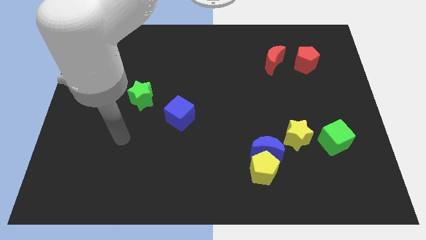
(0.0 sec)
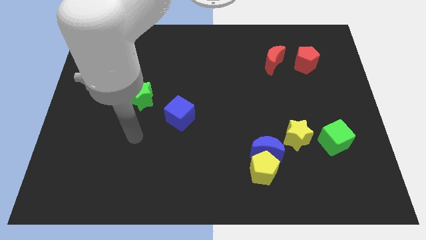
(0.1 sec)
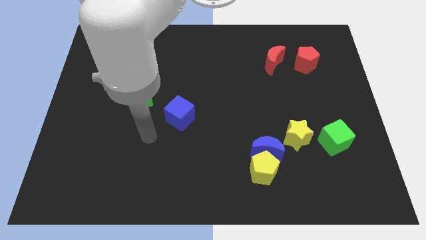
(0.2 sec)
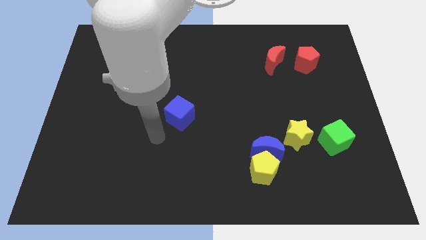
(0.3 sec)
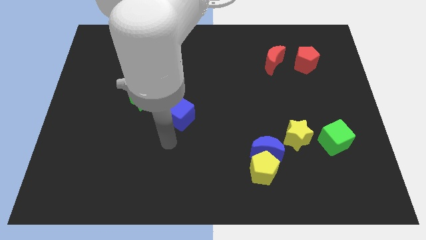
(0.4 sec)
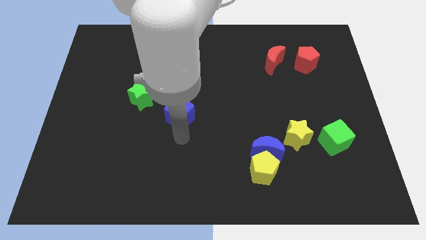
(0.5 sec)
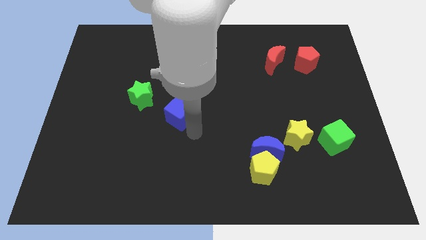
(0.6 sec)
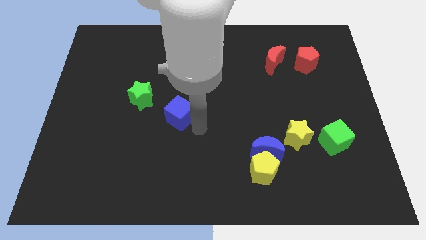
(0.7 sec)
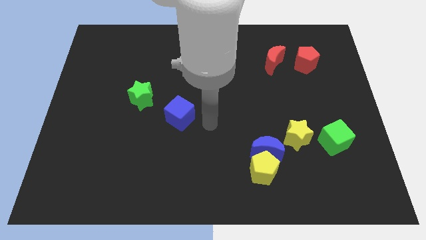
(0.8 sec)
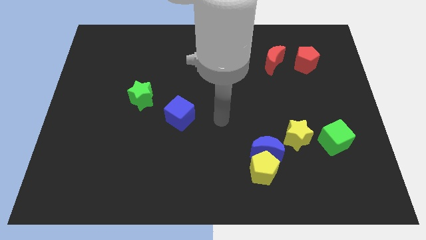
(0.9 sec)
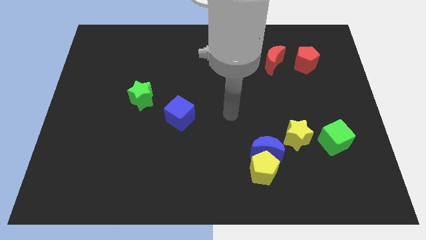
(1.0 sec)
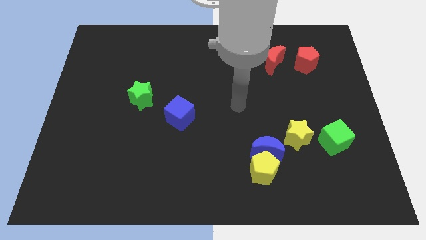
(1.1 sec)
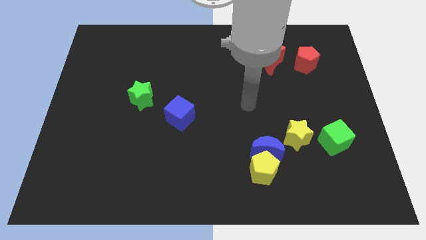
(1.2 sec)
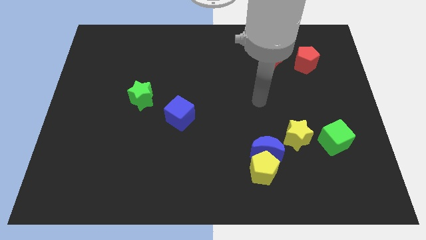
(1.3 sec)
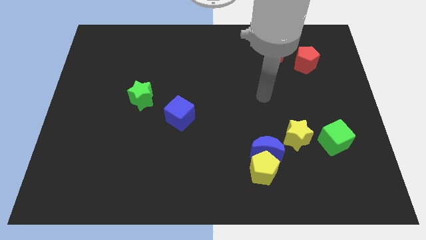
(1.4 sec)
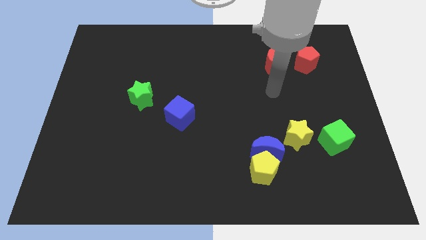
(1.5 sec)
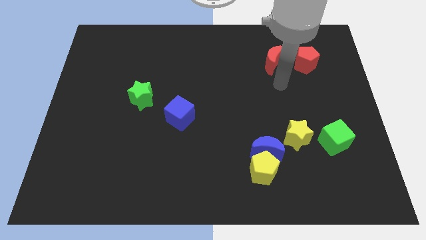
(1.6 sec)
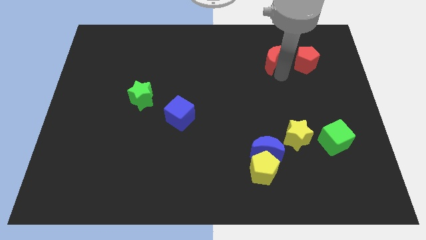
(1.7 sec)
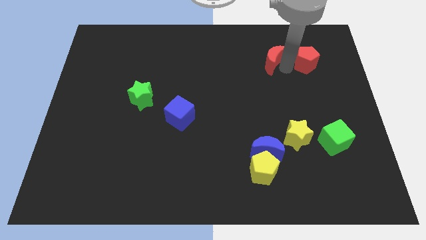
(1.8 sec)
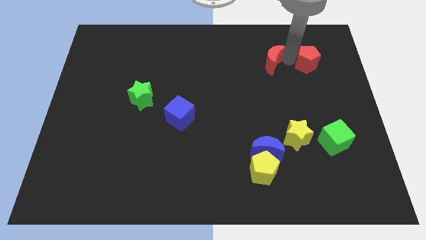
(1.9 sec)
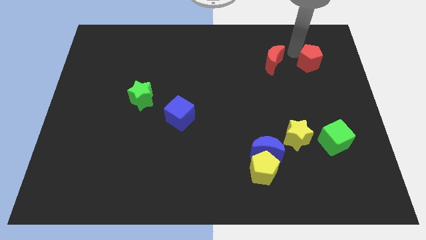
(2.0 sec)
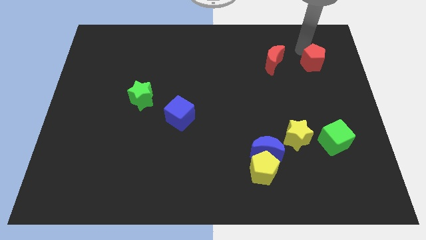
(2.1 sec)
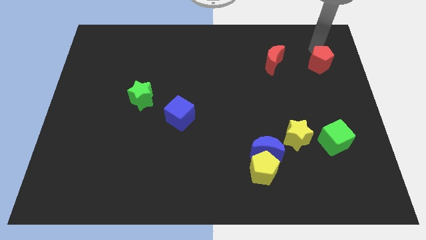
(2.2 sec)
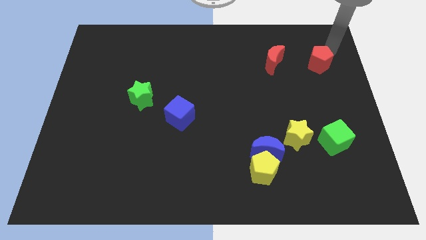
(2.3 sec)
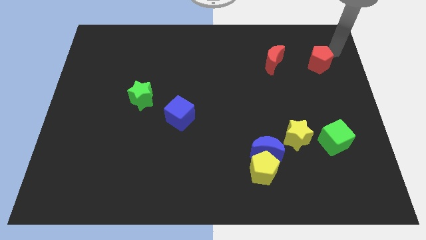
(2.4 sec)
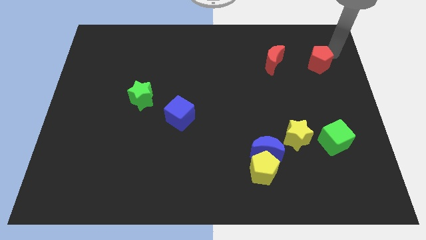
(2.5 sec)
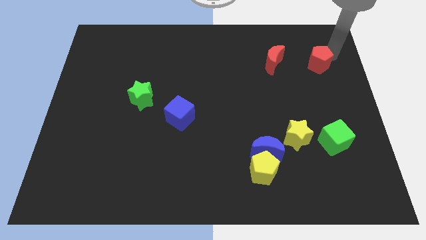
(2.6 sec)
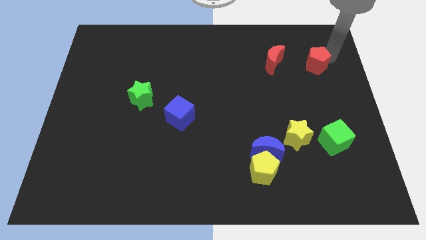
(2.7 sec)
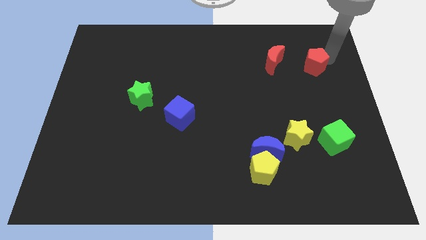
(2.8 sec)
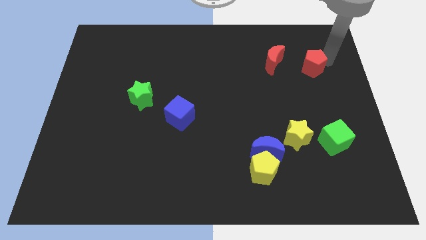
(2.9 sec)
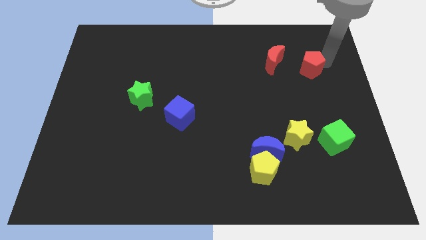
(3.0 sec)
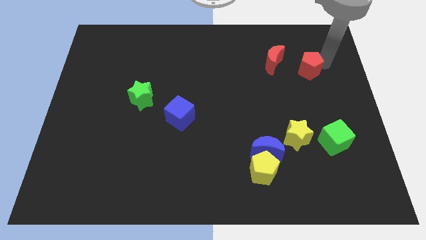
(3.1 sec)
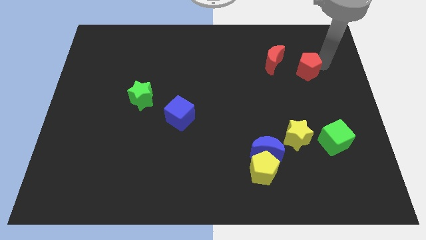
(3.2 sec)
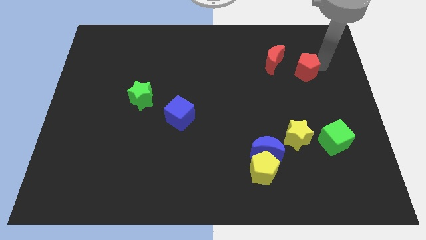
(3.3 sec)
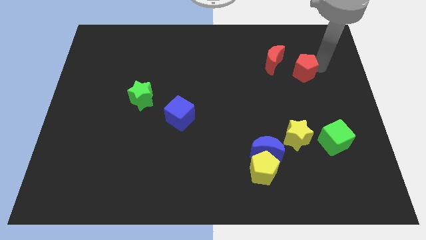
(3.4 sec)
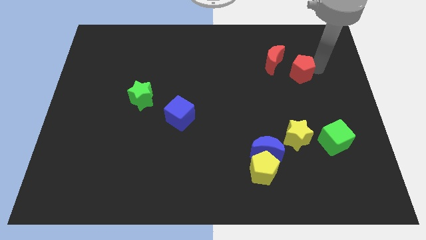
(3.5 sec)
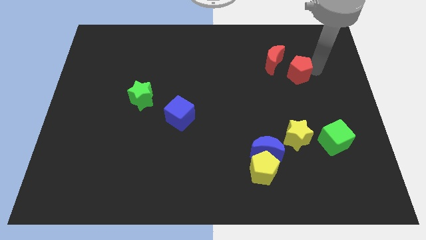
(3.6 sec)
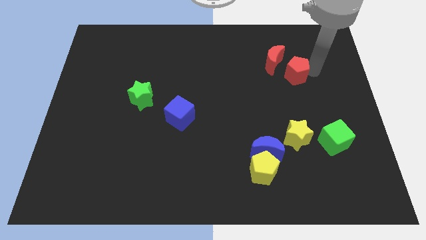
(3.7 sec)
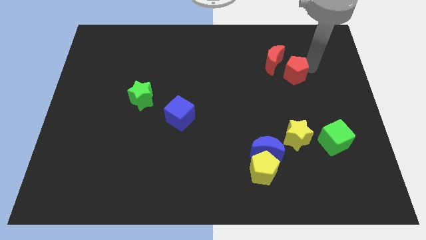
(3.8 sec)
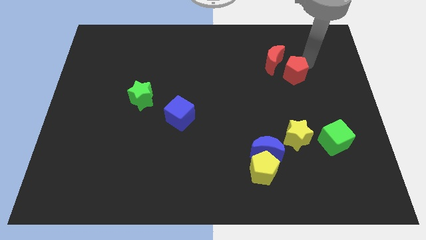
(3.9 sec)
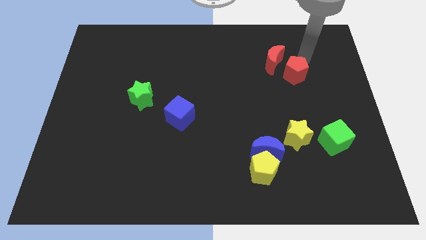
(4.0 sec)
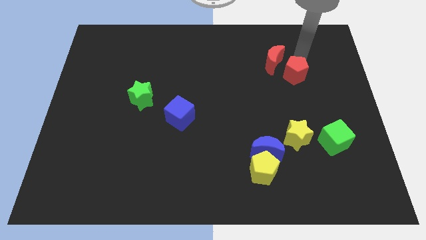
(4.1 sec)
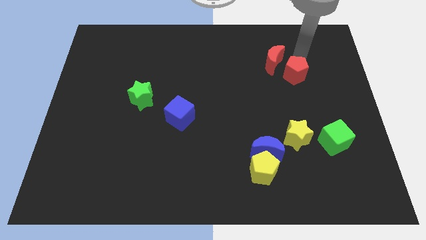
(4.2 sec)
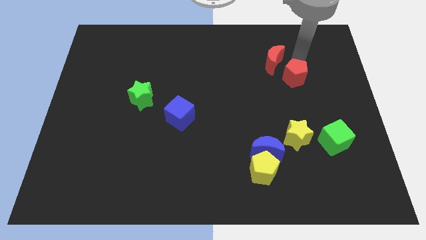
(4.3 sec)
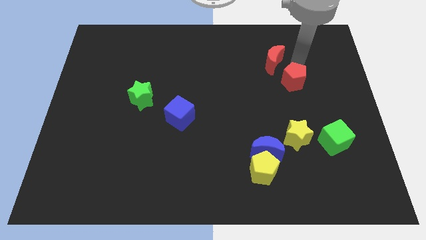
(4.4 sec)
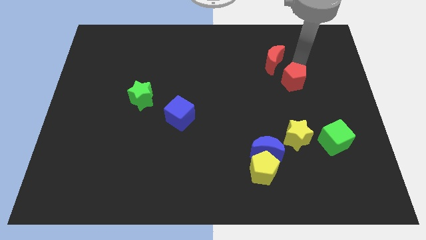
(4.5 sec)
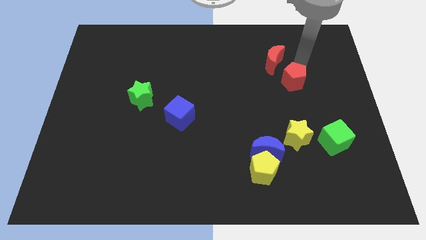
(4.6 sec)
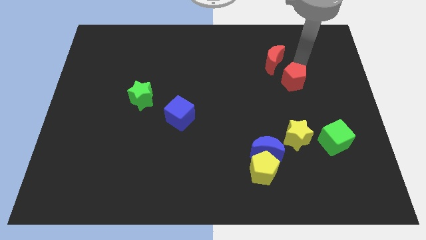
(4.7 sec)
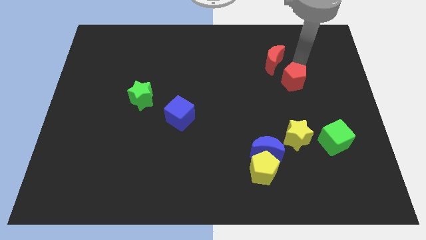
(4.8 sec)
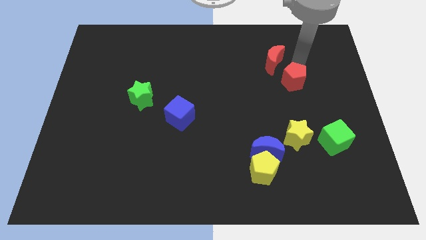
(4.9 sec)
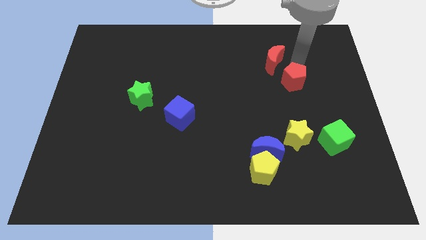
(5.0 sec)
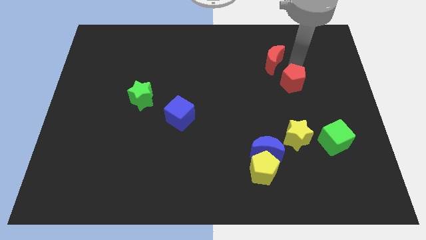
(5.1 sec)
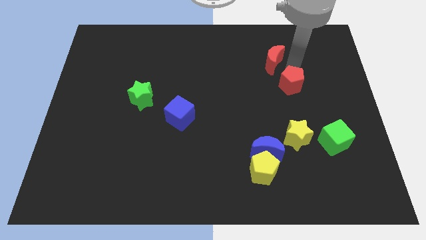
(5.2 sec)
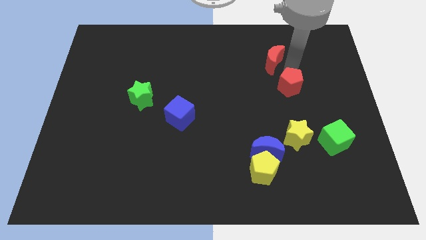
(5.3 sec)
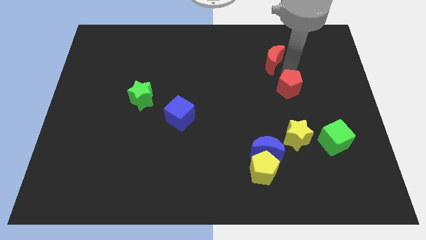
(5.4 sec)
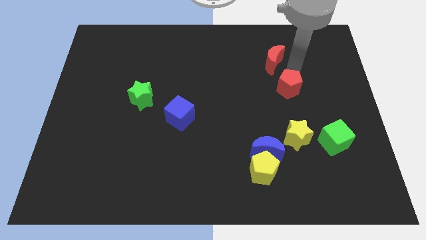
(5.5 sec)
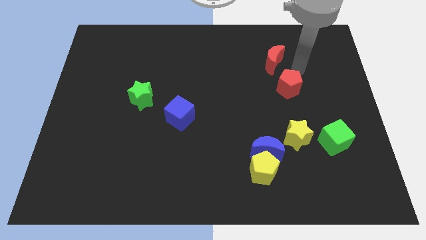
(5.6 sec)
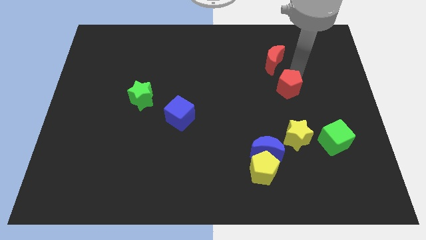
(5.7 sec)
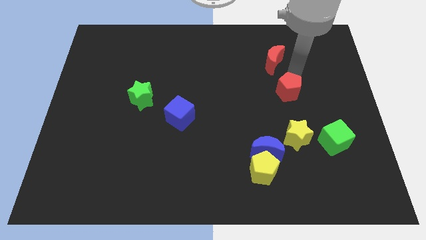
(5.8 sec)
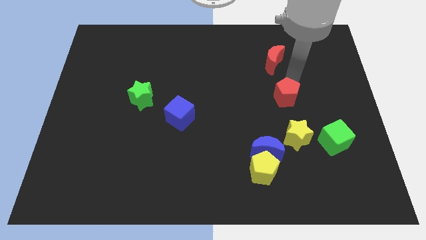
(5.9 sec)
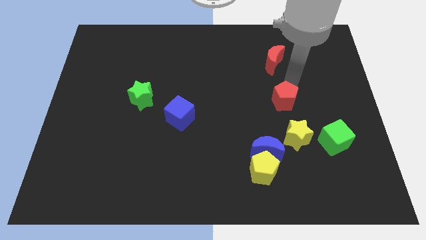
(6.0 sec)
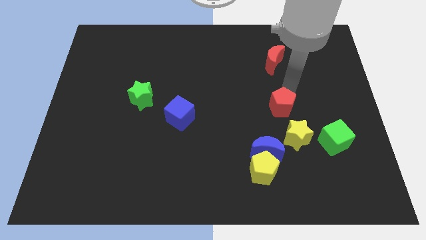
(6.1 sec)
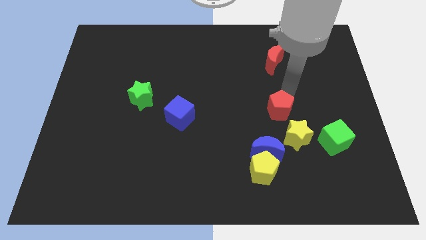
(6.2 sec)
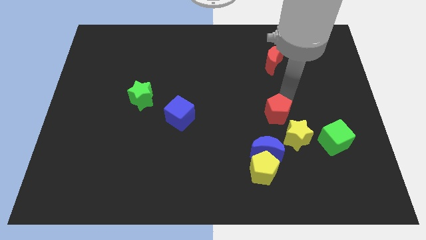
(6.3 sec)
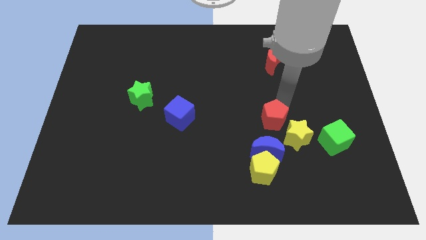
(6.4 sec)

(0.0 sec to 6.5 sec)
move the red pentagon to the top side of the yellow pentagon

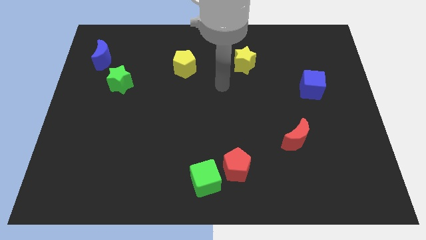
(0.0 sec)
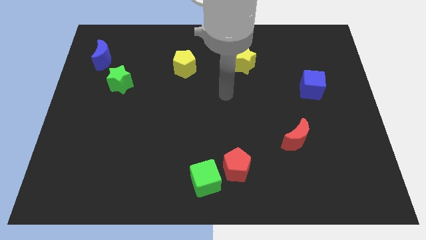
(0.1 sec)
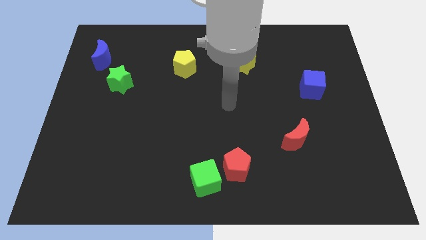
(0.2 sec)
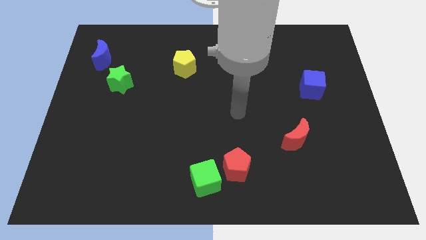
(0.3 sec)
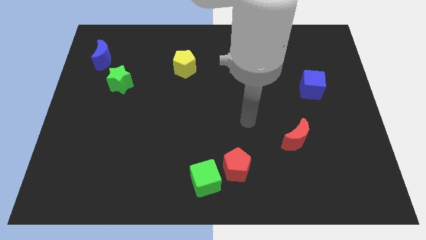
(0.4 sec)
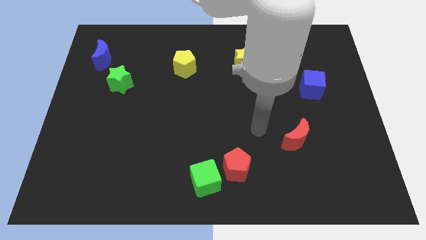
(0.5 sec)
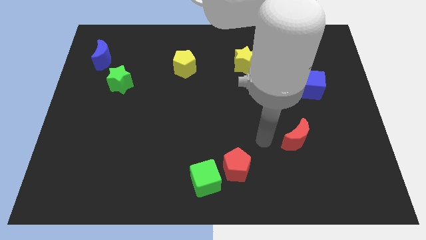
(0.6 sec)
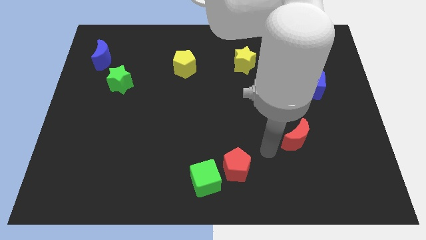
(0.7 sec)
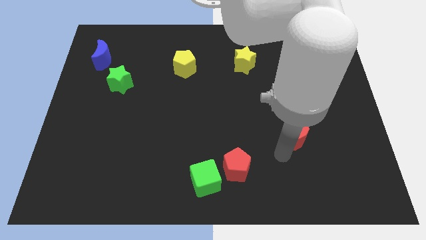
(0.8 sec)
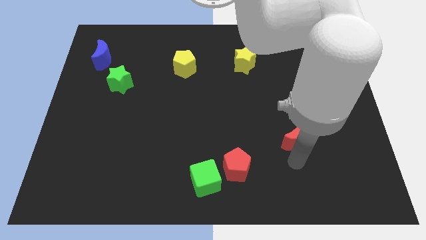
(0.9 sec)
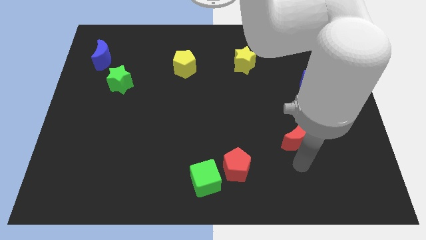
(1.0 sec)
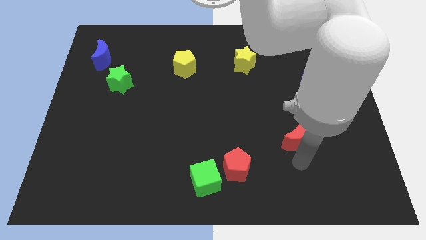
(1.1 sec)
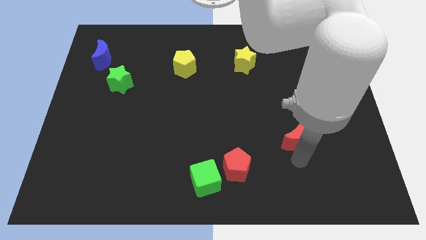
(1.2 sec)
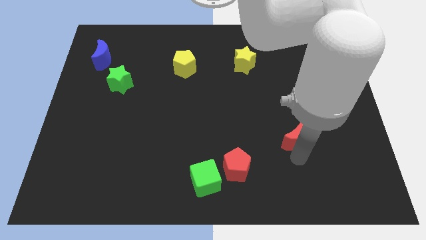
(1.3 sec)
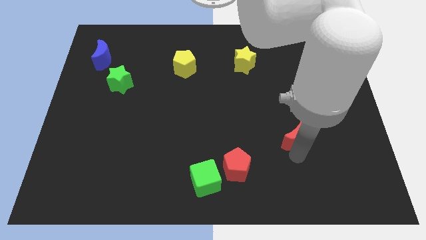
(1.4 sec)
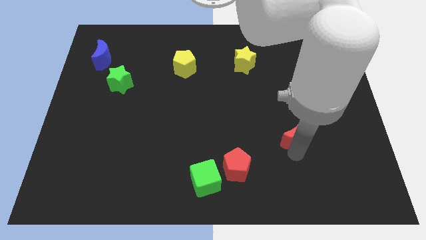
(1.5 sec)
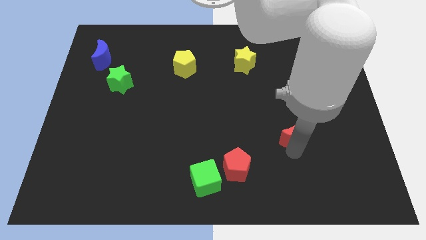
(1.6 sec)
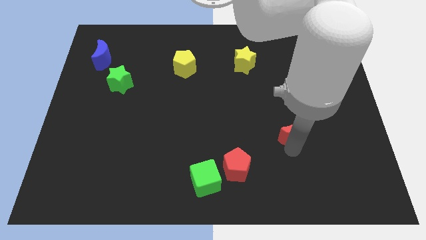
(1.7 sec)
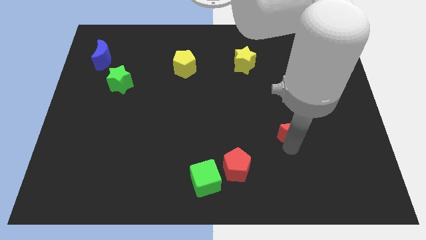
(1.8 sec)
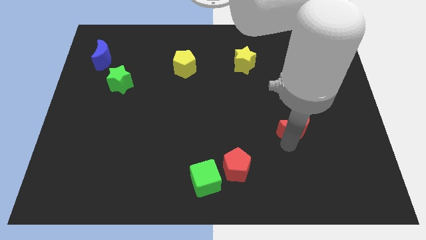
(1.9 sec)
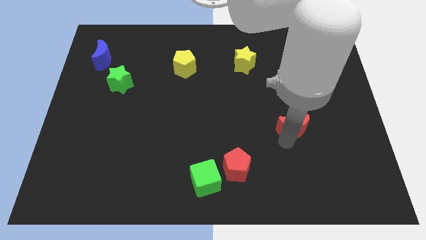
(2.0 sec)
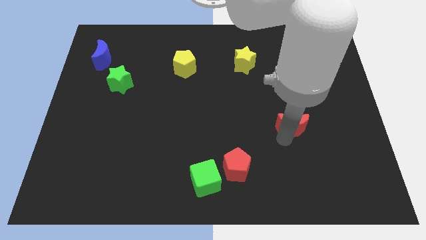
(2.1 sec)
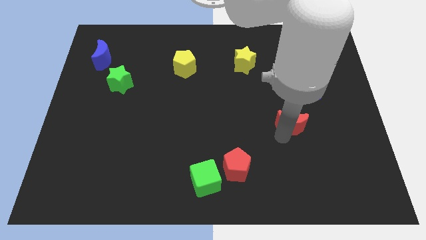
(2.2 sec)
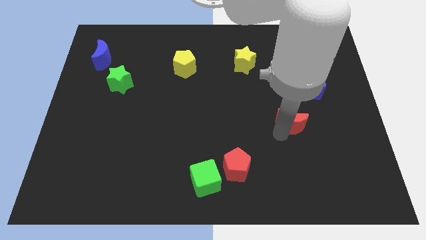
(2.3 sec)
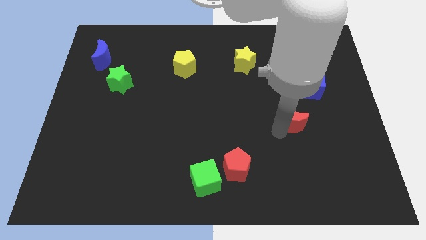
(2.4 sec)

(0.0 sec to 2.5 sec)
move the red moon to the bottom left side of the blue cube
